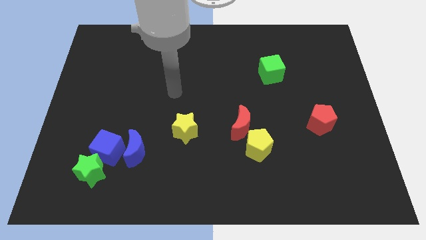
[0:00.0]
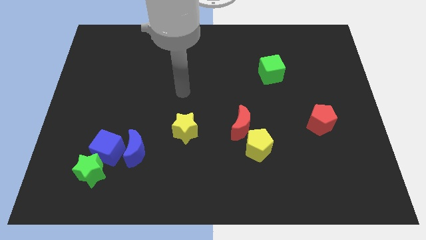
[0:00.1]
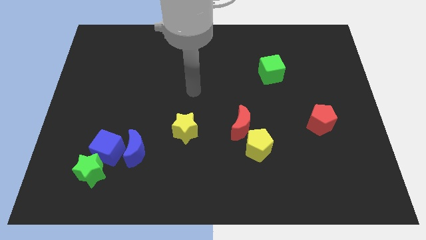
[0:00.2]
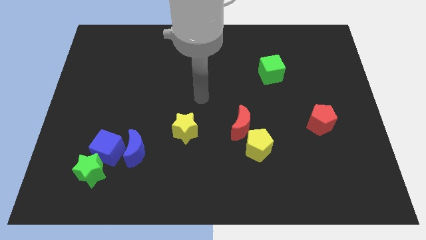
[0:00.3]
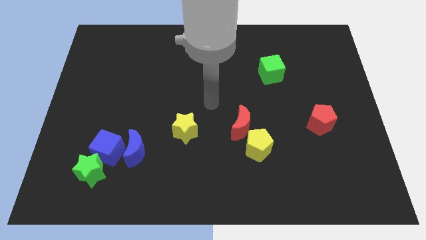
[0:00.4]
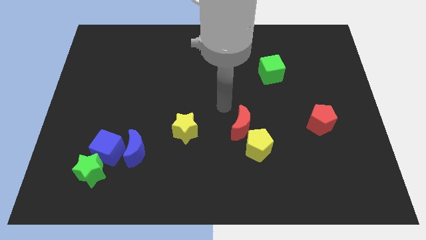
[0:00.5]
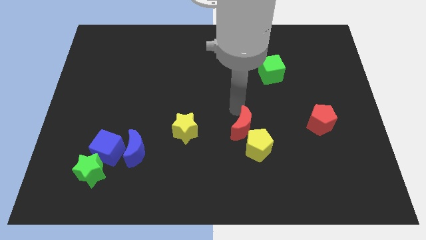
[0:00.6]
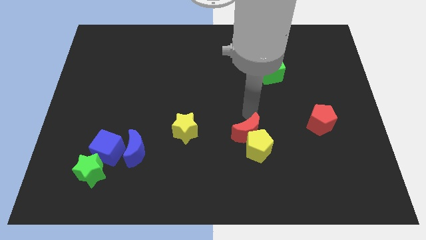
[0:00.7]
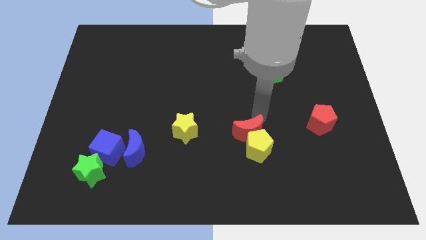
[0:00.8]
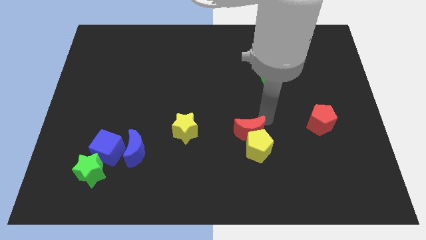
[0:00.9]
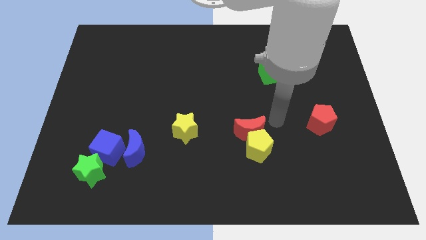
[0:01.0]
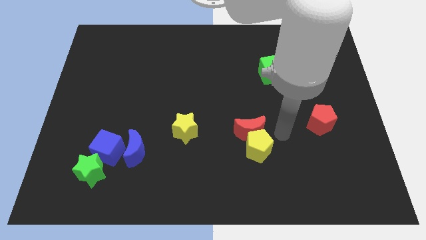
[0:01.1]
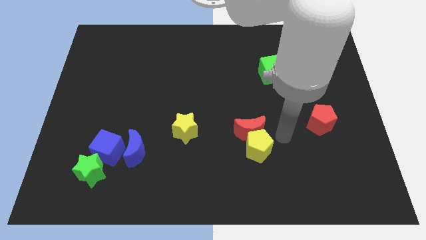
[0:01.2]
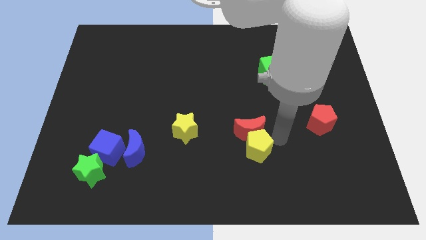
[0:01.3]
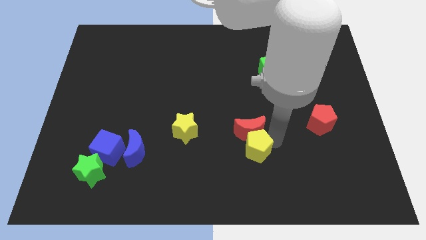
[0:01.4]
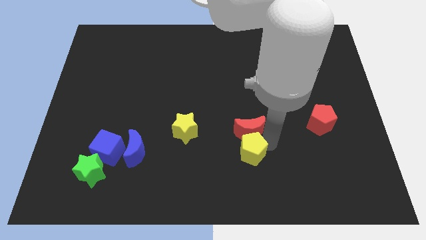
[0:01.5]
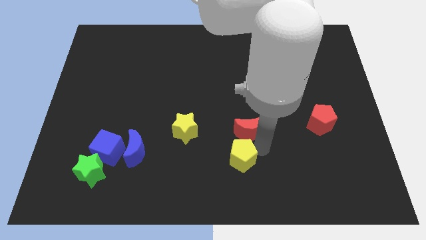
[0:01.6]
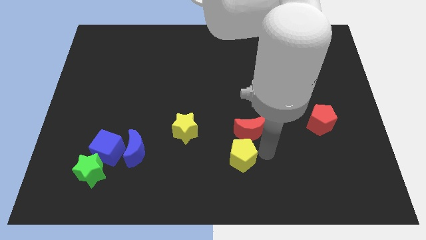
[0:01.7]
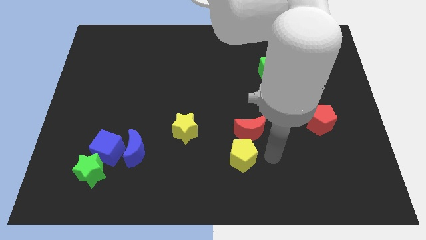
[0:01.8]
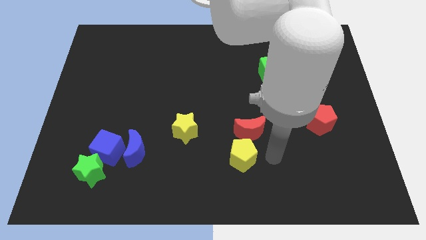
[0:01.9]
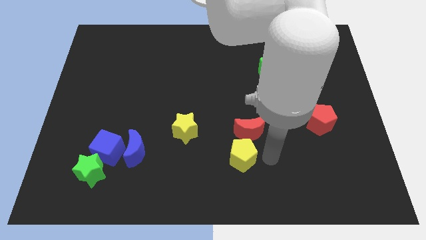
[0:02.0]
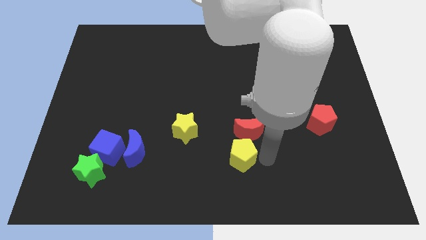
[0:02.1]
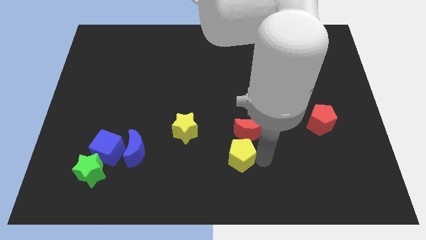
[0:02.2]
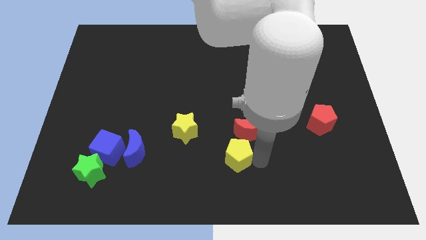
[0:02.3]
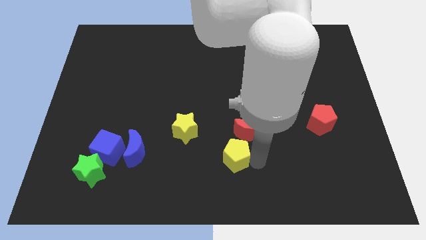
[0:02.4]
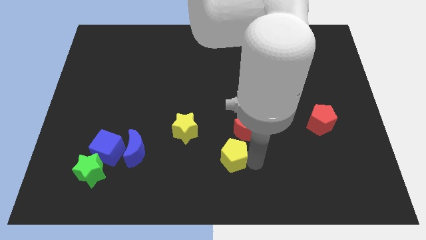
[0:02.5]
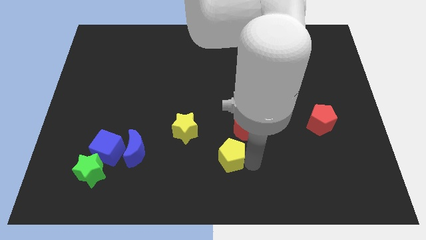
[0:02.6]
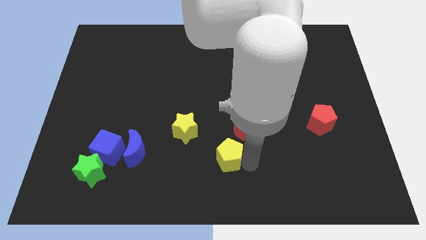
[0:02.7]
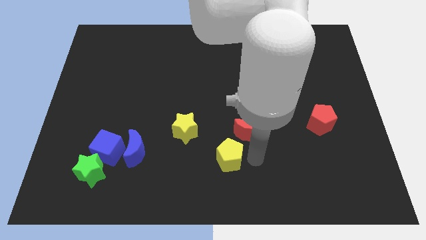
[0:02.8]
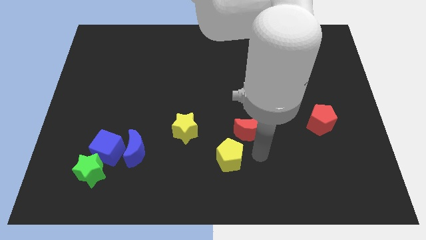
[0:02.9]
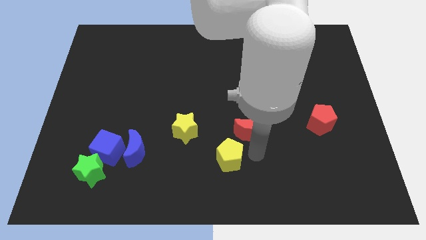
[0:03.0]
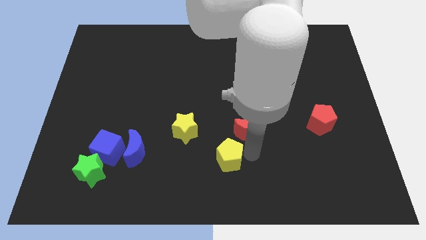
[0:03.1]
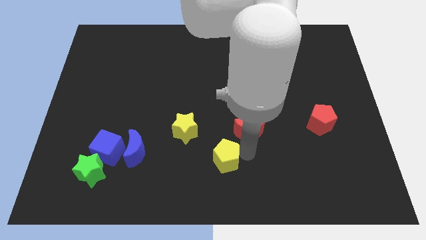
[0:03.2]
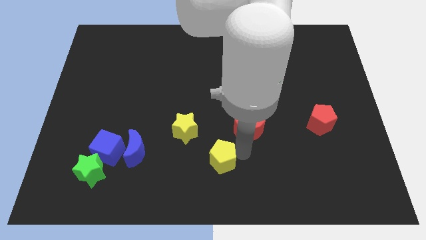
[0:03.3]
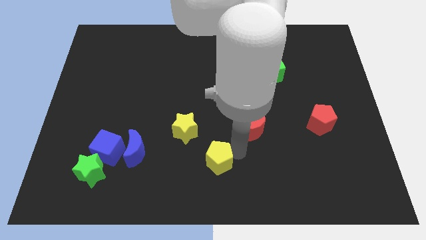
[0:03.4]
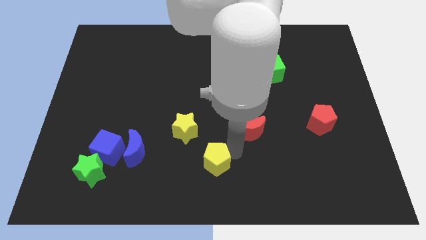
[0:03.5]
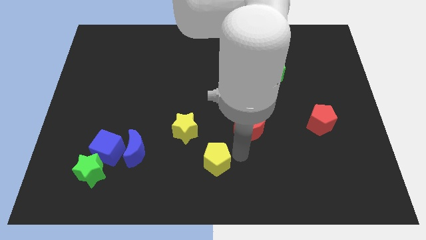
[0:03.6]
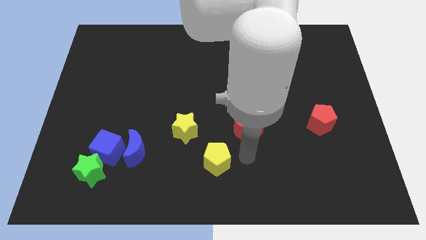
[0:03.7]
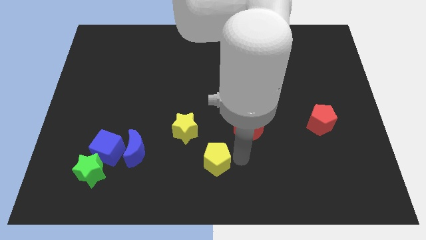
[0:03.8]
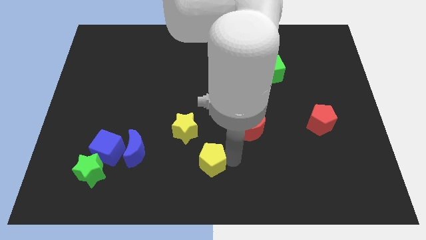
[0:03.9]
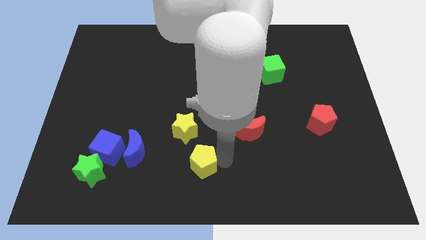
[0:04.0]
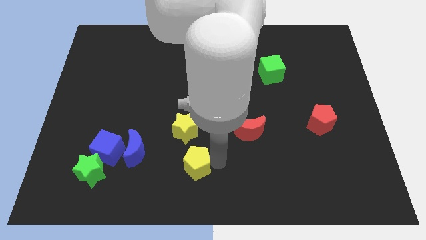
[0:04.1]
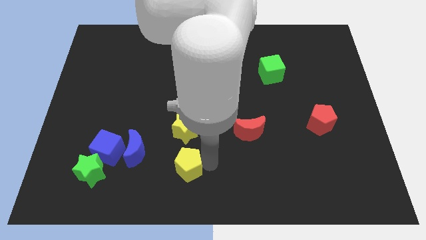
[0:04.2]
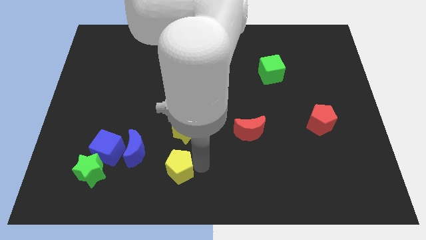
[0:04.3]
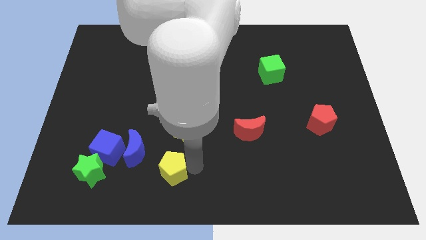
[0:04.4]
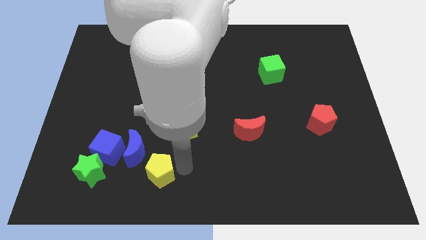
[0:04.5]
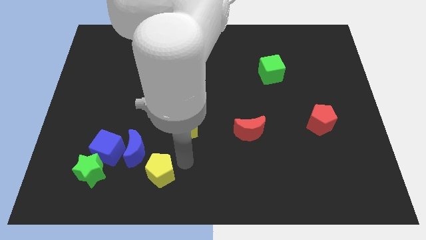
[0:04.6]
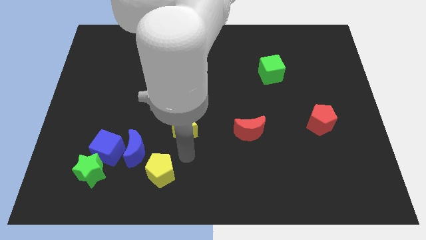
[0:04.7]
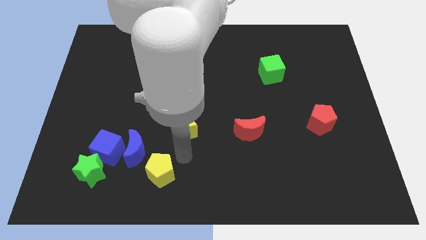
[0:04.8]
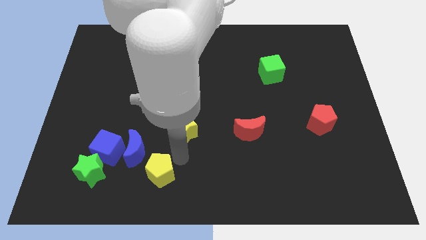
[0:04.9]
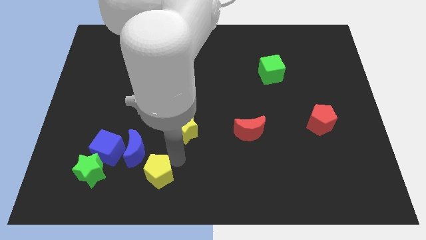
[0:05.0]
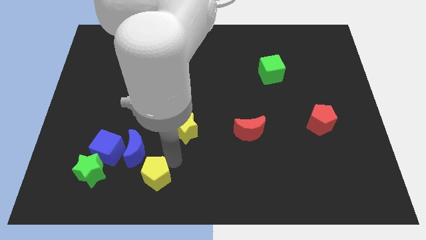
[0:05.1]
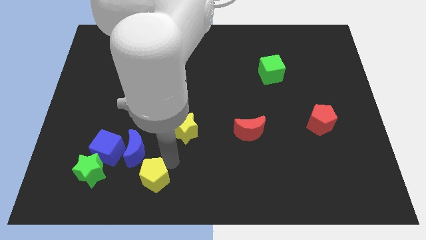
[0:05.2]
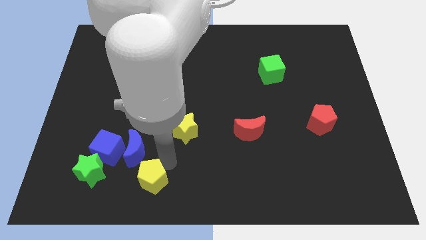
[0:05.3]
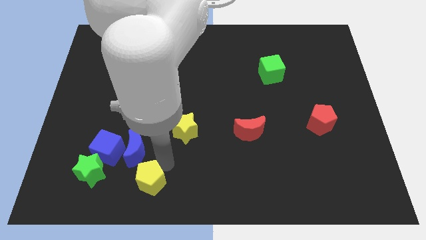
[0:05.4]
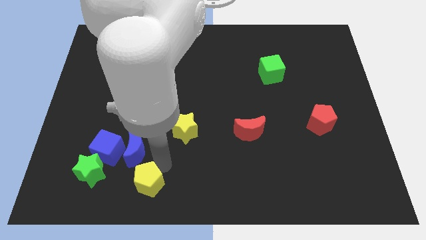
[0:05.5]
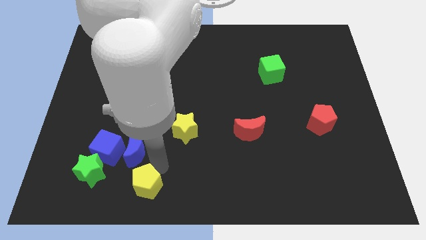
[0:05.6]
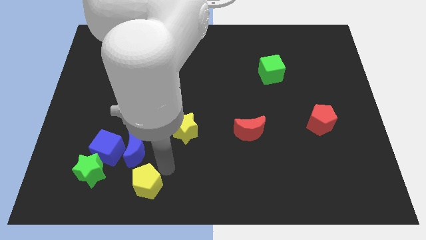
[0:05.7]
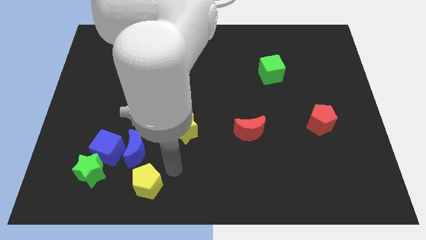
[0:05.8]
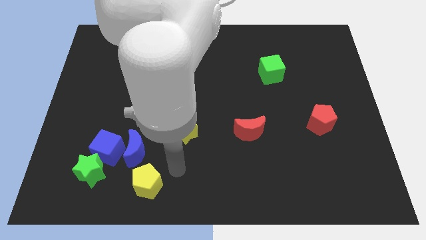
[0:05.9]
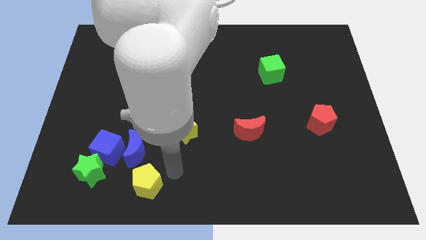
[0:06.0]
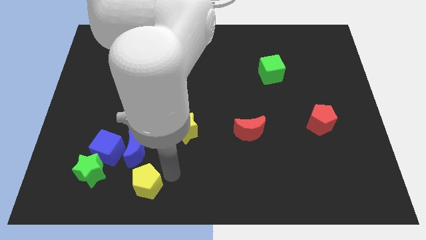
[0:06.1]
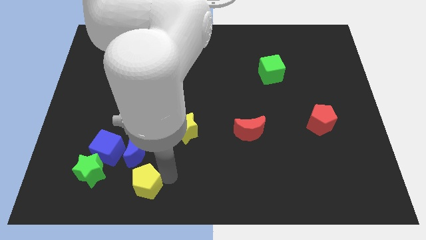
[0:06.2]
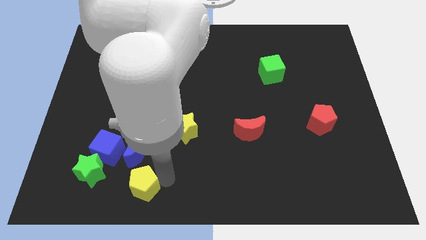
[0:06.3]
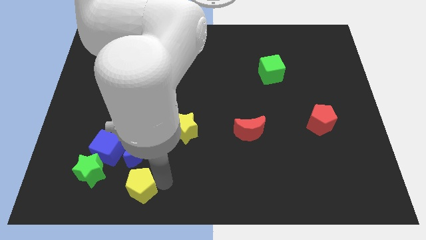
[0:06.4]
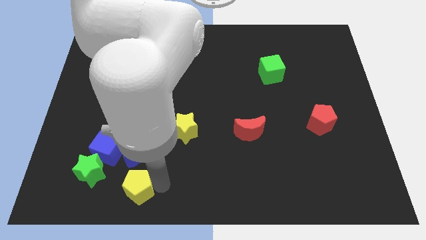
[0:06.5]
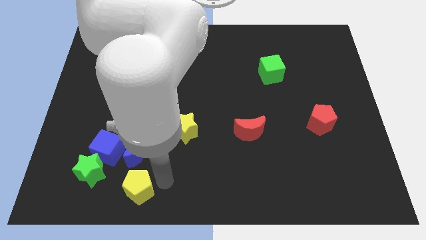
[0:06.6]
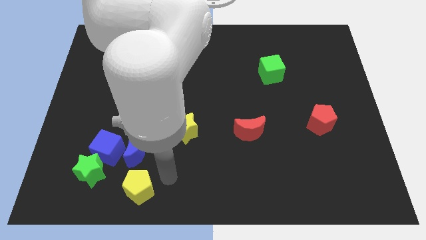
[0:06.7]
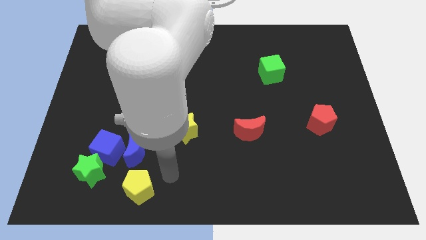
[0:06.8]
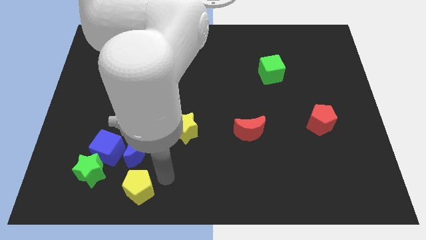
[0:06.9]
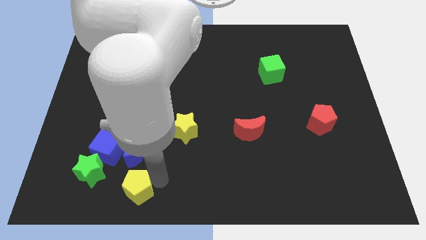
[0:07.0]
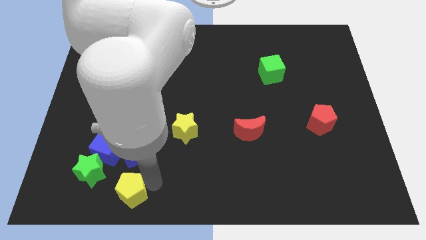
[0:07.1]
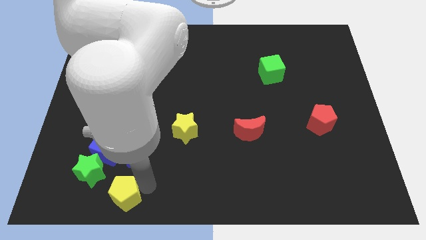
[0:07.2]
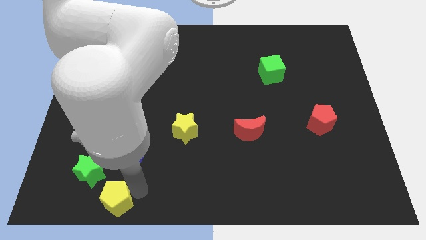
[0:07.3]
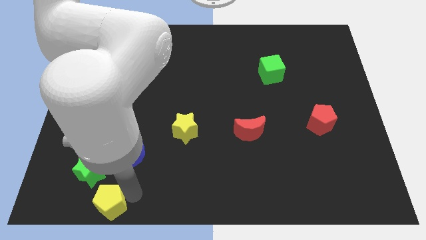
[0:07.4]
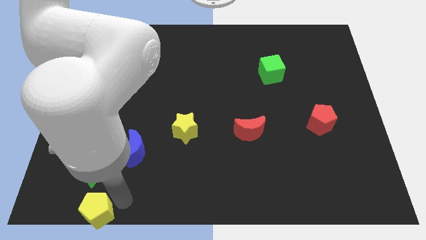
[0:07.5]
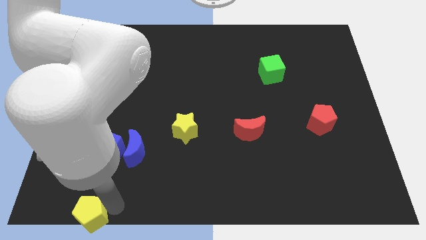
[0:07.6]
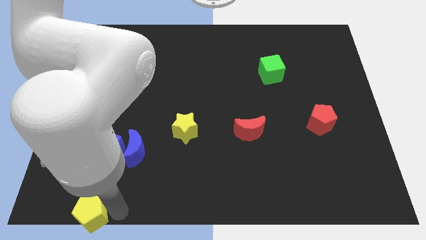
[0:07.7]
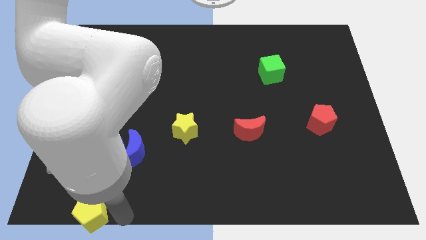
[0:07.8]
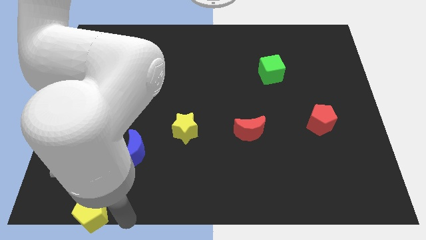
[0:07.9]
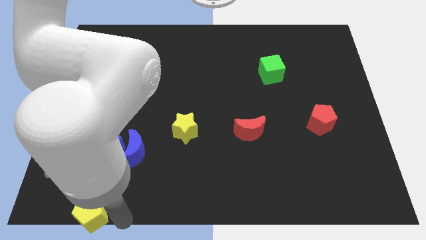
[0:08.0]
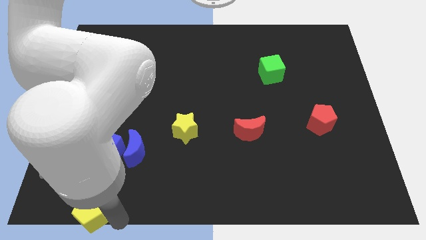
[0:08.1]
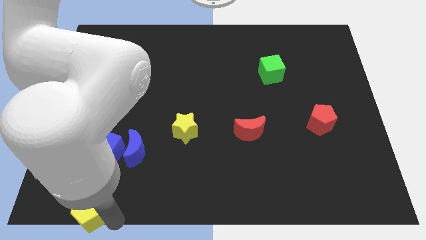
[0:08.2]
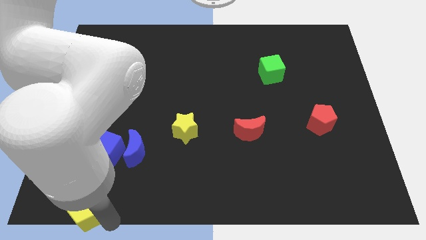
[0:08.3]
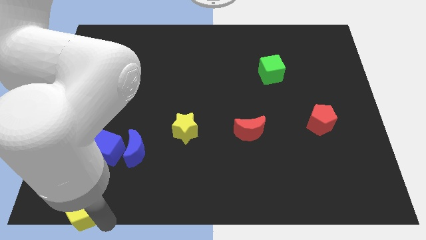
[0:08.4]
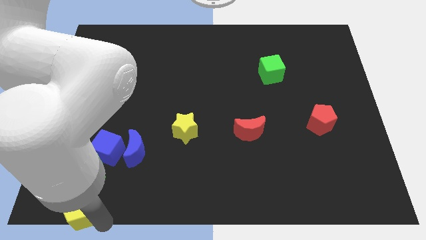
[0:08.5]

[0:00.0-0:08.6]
move the yellow pentagon to the bottom left
